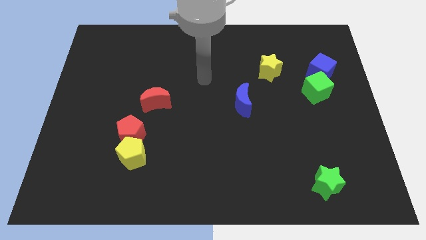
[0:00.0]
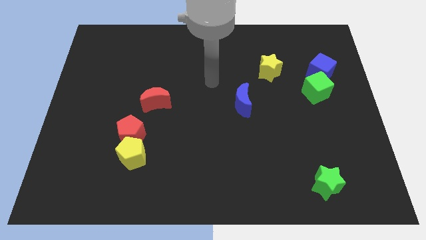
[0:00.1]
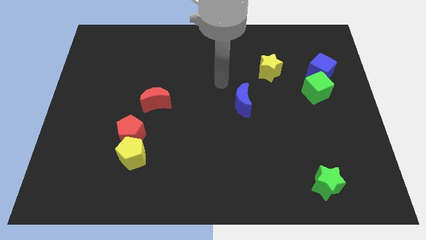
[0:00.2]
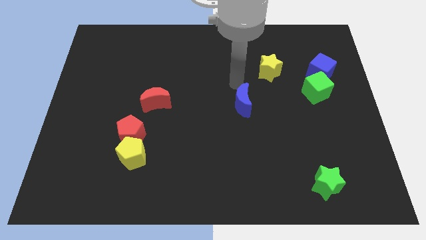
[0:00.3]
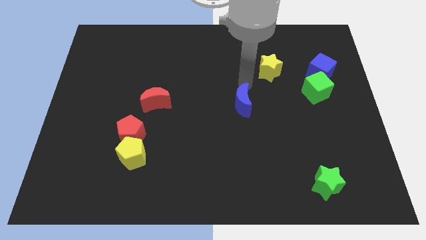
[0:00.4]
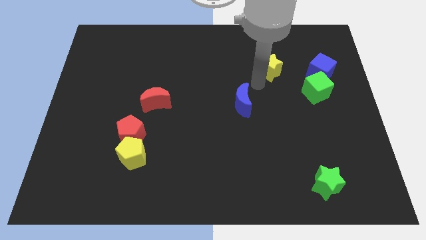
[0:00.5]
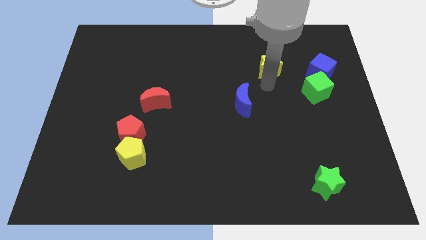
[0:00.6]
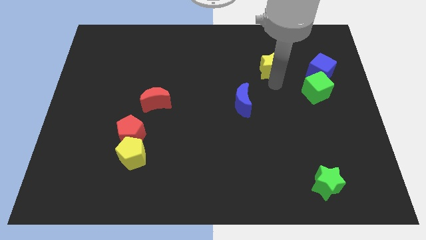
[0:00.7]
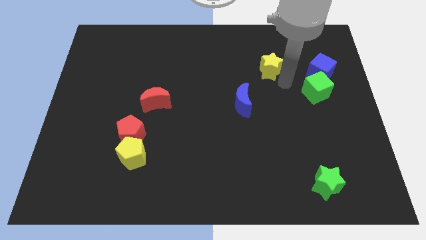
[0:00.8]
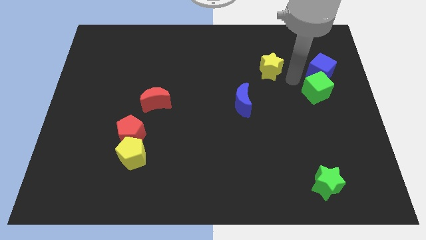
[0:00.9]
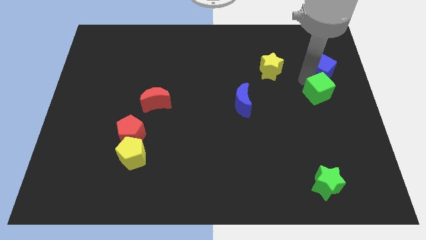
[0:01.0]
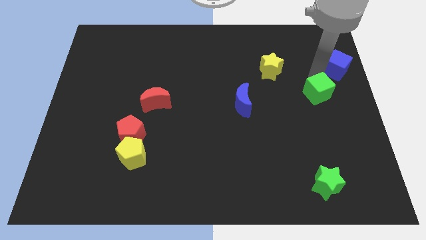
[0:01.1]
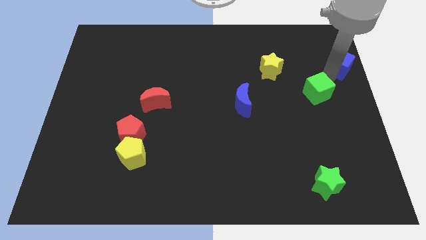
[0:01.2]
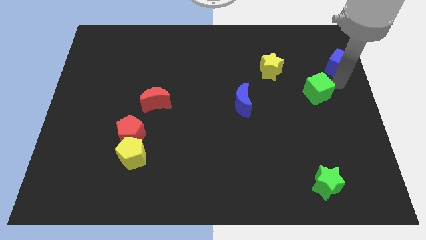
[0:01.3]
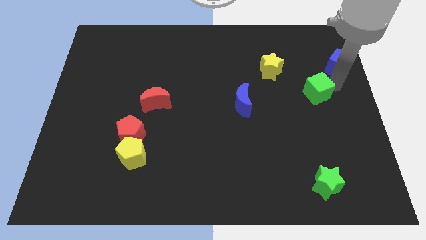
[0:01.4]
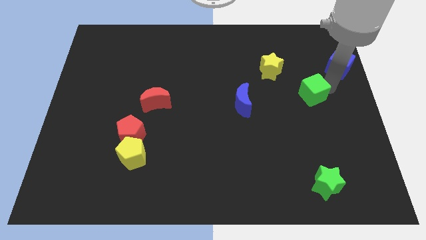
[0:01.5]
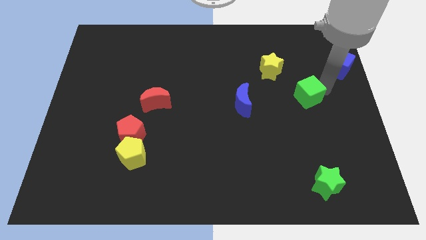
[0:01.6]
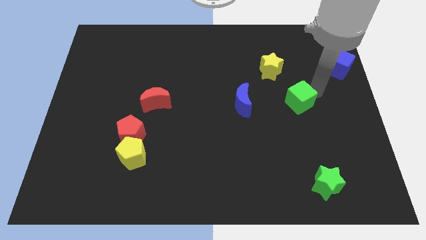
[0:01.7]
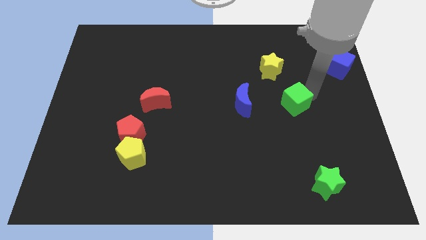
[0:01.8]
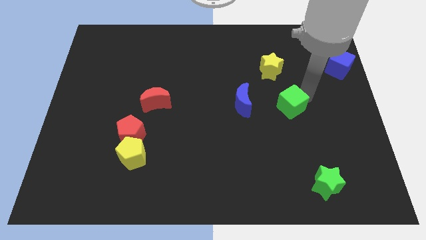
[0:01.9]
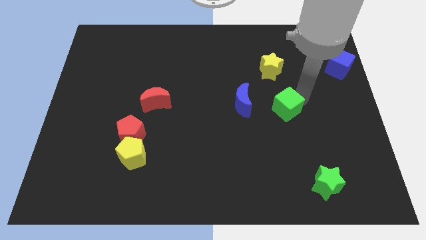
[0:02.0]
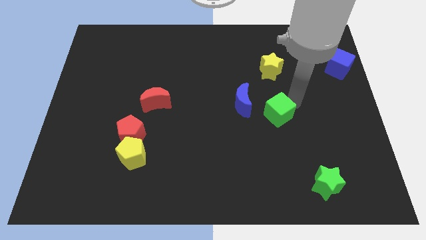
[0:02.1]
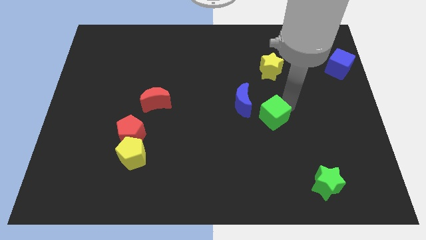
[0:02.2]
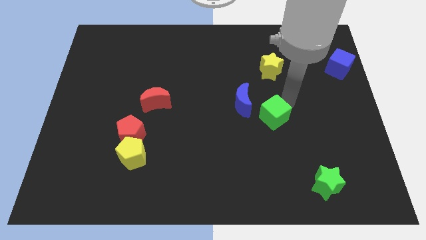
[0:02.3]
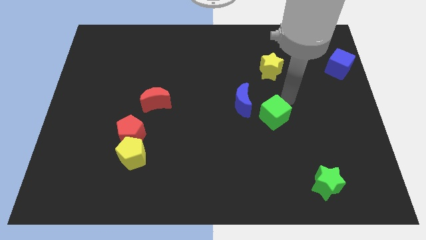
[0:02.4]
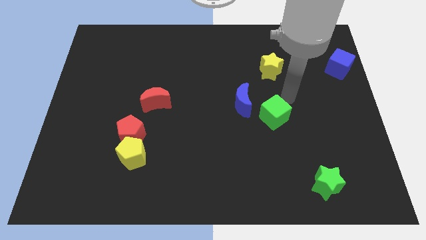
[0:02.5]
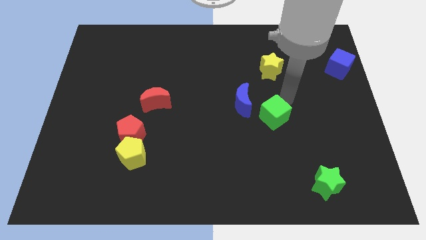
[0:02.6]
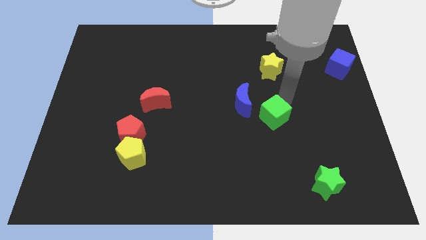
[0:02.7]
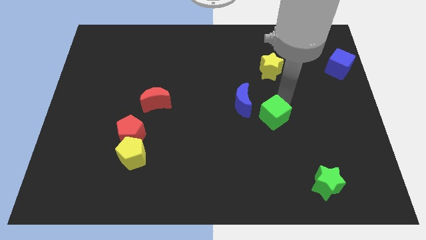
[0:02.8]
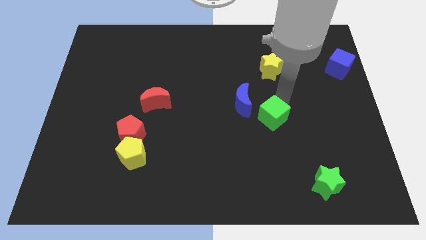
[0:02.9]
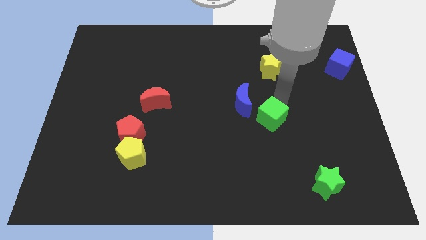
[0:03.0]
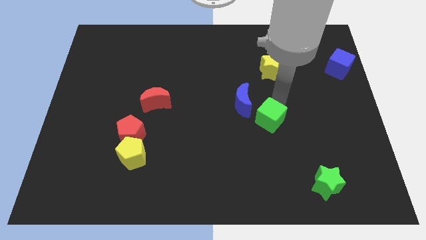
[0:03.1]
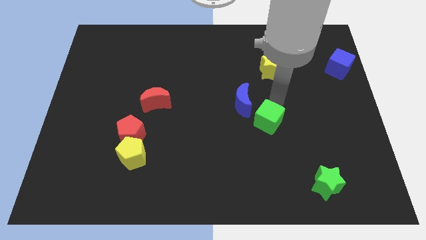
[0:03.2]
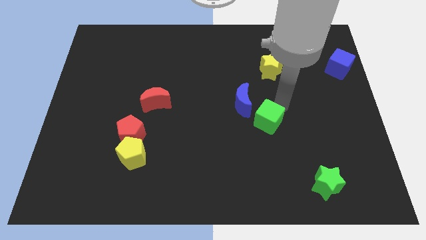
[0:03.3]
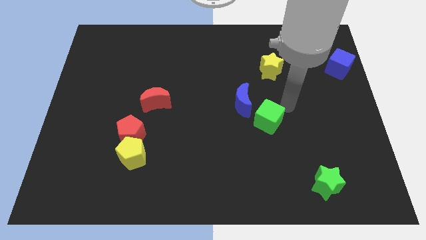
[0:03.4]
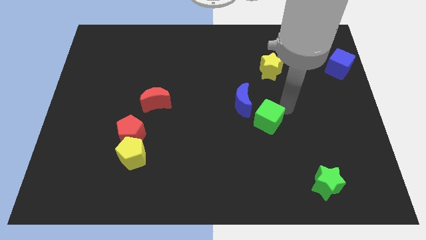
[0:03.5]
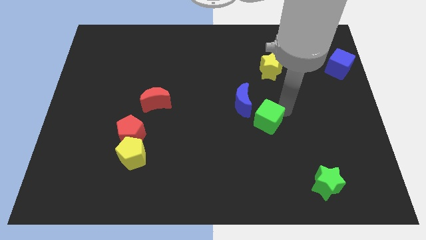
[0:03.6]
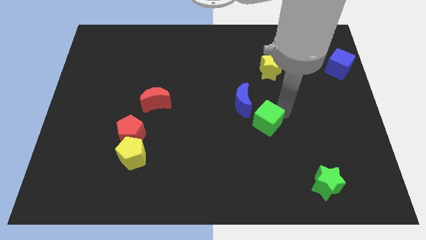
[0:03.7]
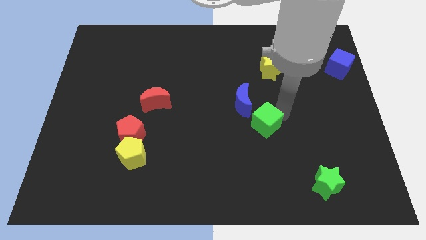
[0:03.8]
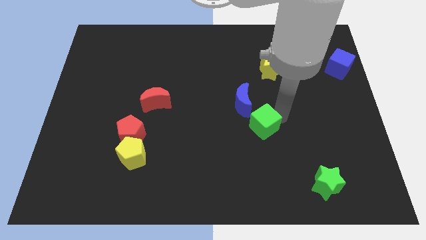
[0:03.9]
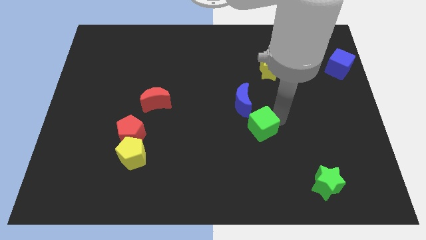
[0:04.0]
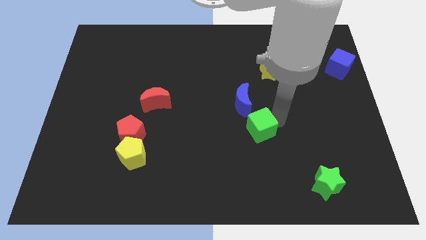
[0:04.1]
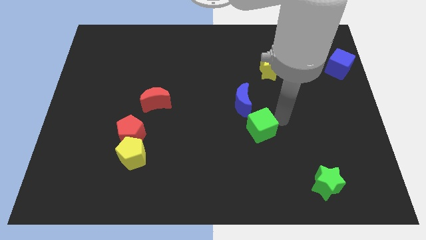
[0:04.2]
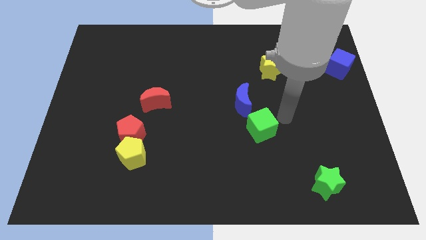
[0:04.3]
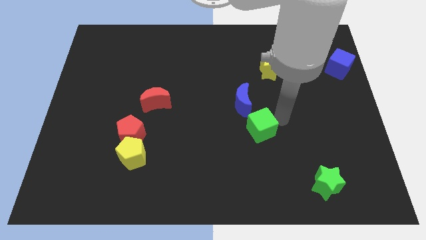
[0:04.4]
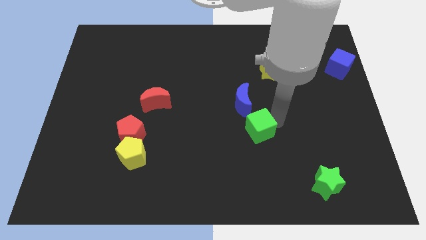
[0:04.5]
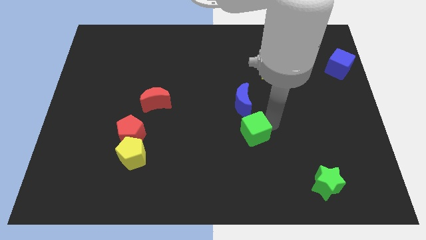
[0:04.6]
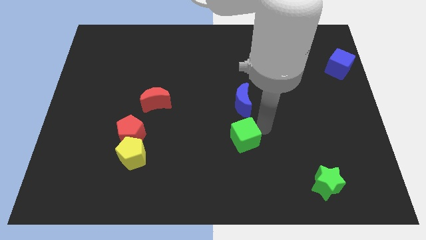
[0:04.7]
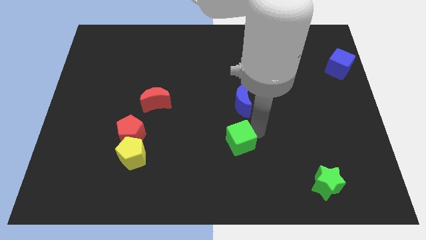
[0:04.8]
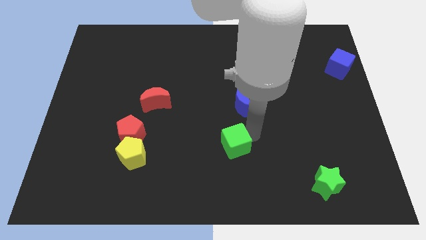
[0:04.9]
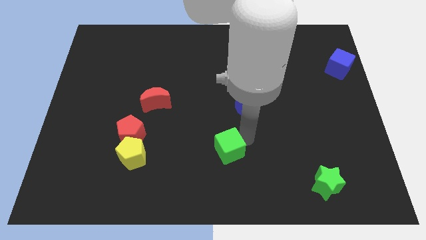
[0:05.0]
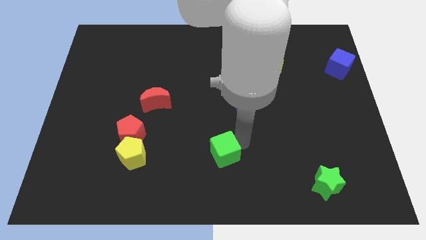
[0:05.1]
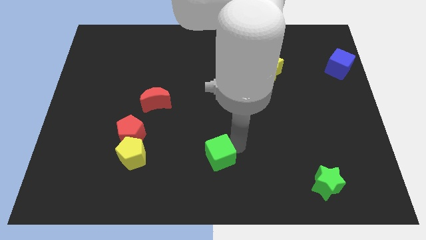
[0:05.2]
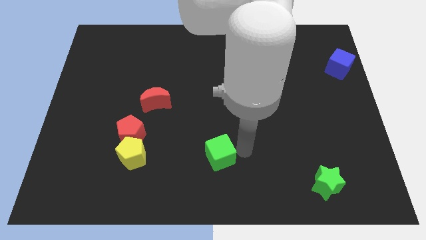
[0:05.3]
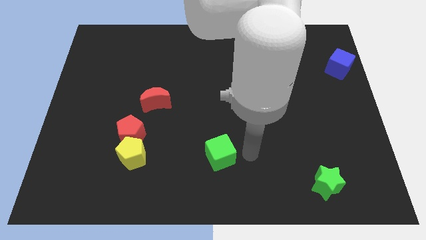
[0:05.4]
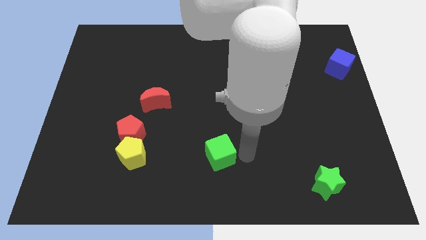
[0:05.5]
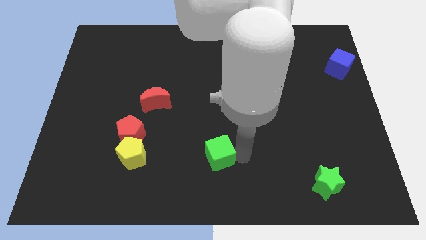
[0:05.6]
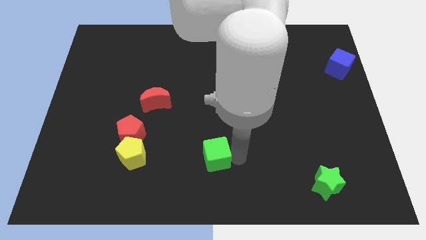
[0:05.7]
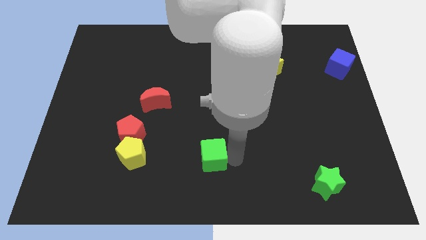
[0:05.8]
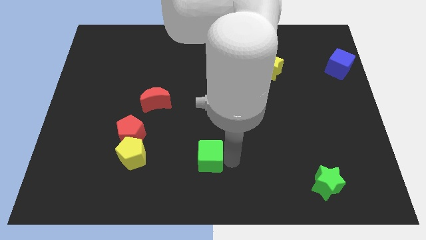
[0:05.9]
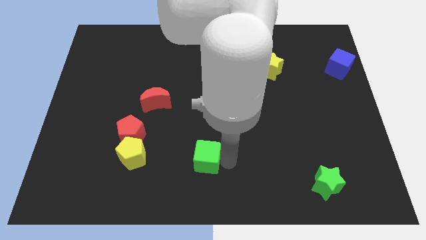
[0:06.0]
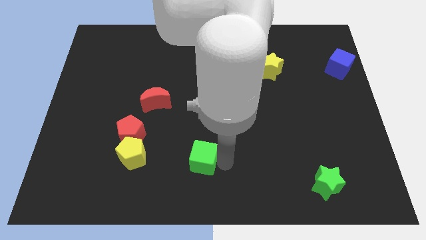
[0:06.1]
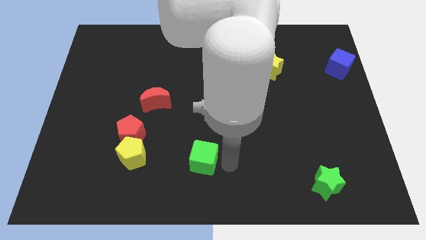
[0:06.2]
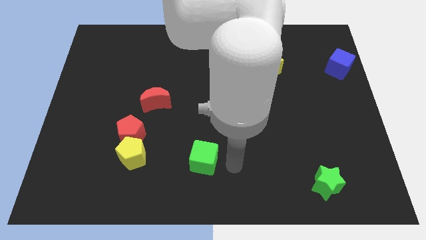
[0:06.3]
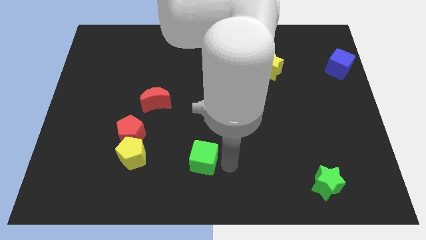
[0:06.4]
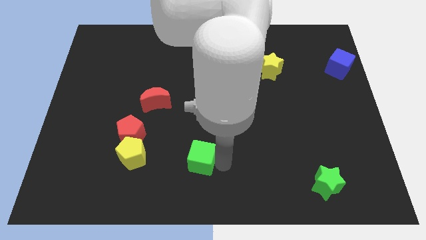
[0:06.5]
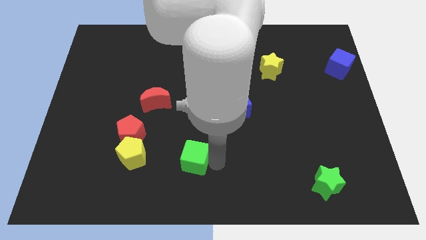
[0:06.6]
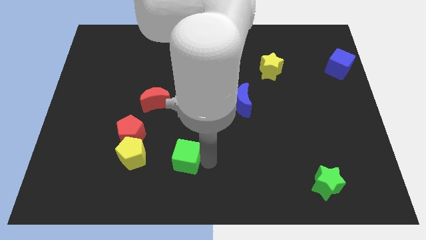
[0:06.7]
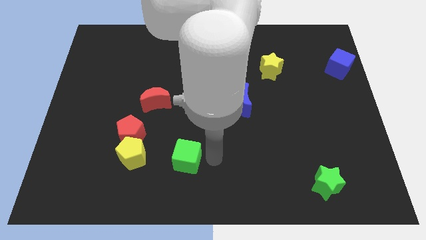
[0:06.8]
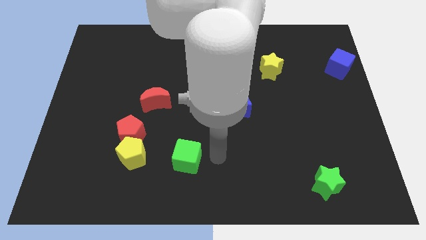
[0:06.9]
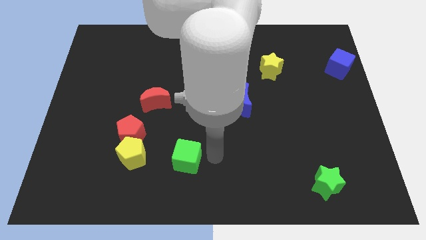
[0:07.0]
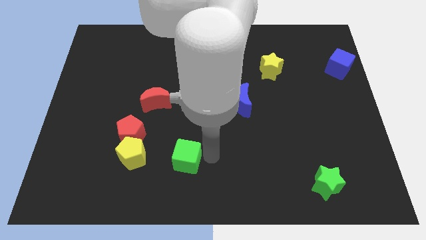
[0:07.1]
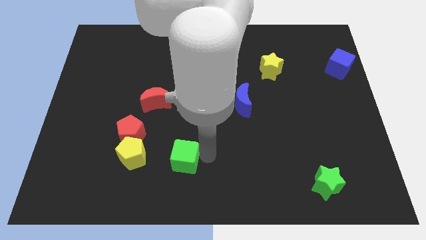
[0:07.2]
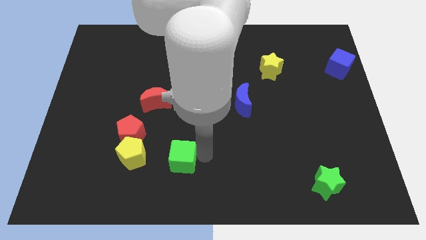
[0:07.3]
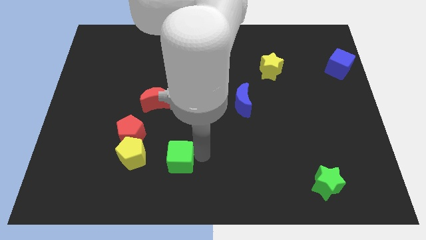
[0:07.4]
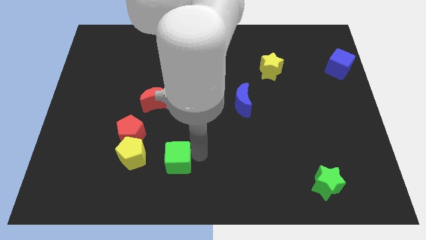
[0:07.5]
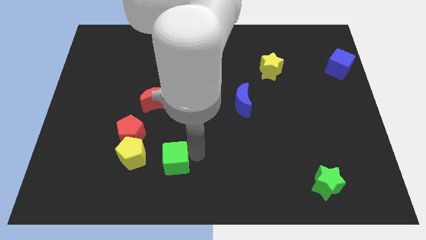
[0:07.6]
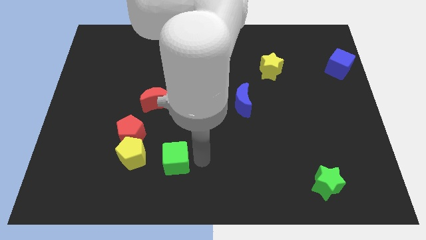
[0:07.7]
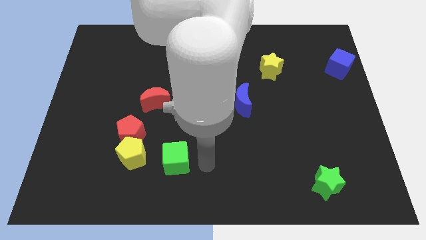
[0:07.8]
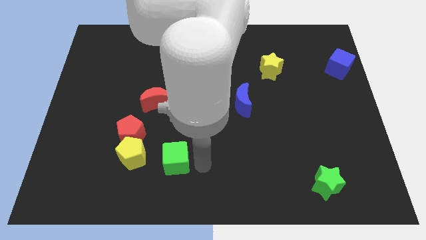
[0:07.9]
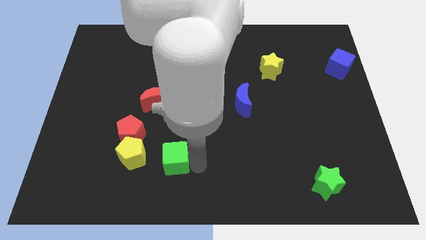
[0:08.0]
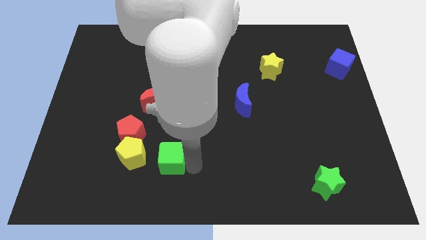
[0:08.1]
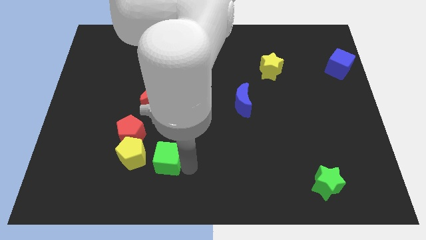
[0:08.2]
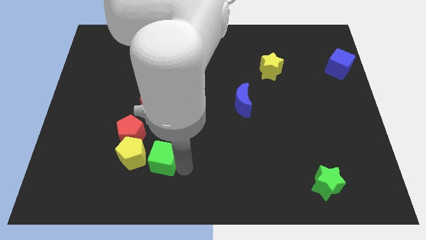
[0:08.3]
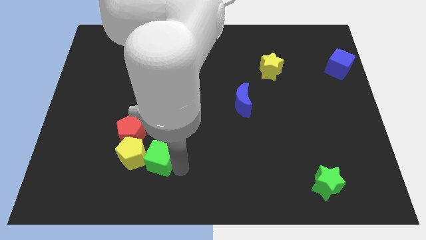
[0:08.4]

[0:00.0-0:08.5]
push the green cube to the yellow pentagon
